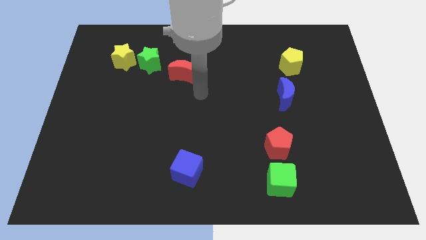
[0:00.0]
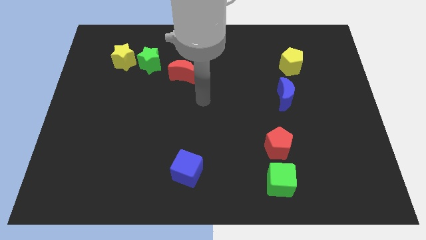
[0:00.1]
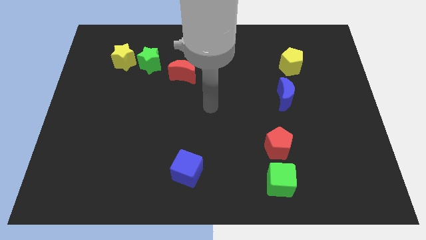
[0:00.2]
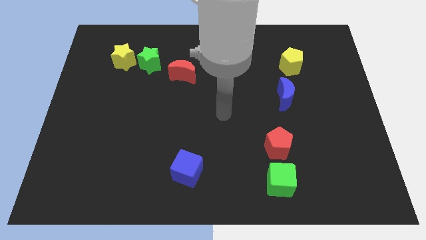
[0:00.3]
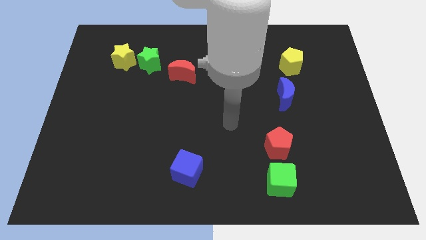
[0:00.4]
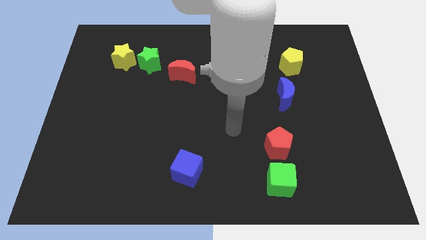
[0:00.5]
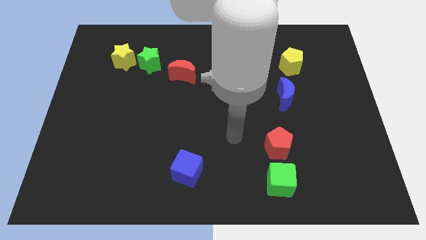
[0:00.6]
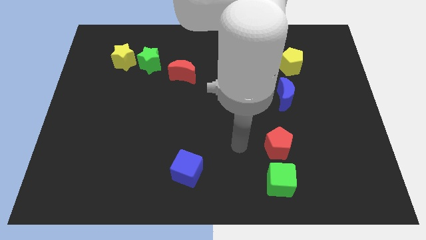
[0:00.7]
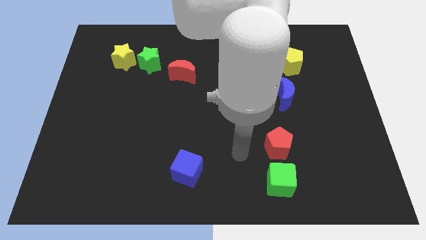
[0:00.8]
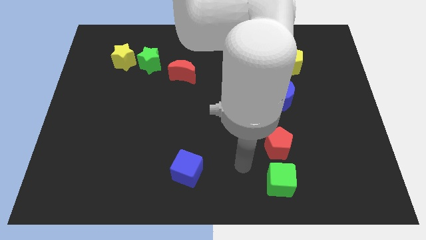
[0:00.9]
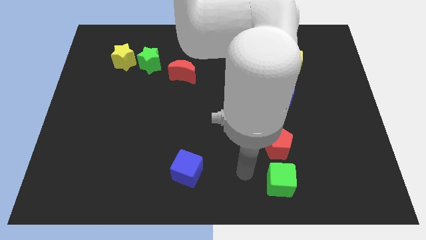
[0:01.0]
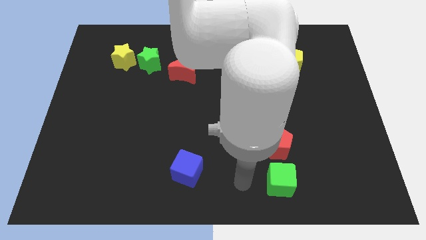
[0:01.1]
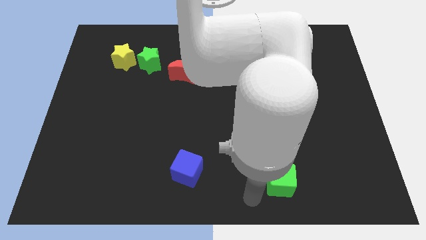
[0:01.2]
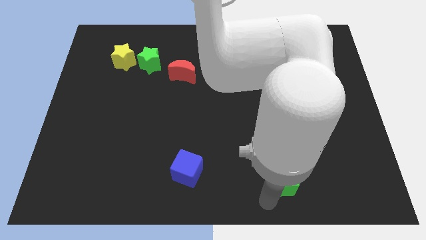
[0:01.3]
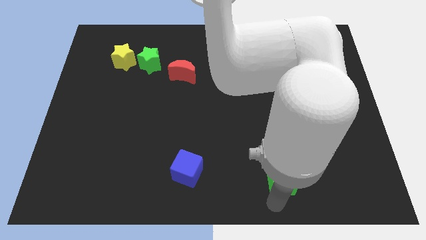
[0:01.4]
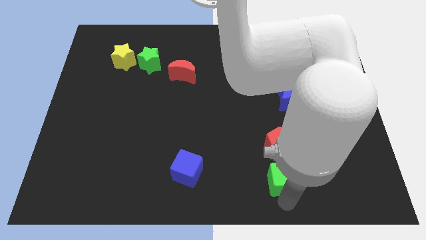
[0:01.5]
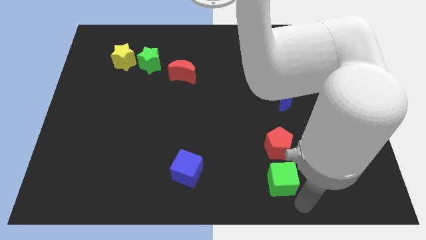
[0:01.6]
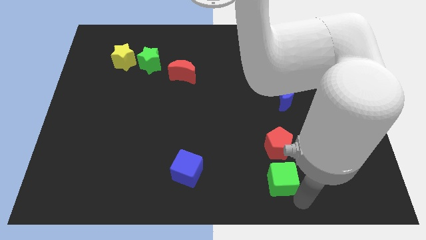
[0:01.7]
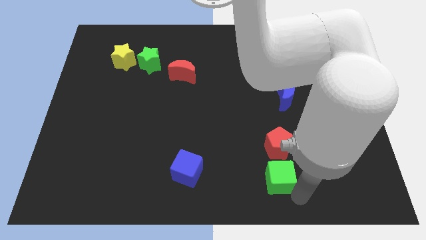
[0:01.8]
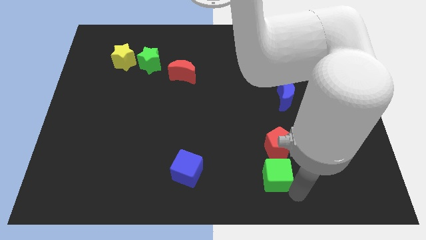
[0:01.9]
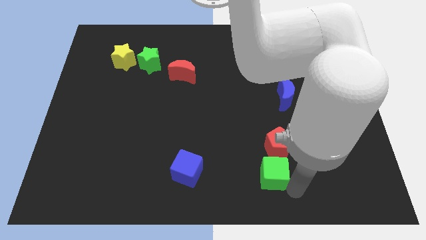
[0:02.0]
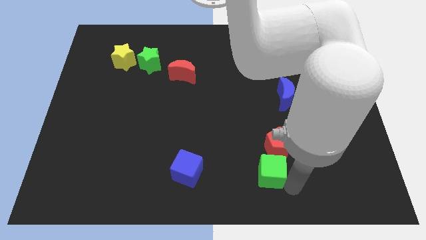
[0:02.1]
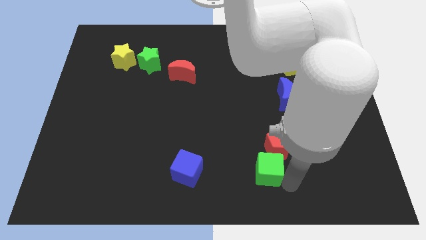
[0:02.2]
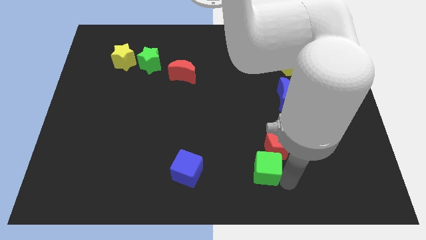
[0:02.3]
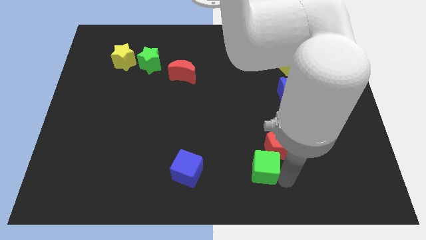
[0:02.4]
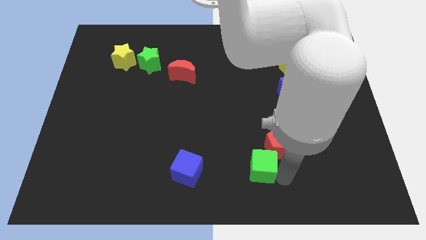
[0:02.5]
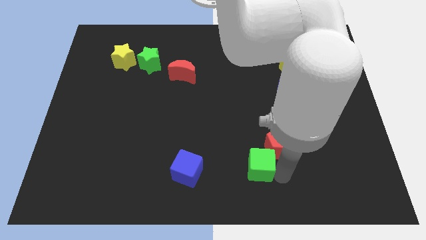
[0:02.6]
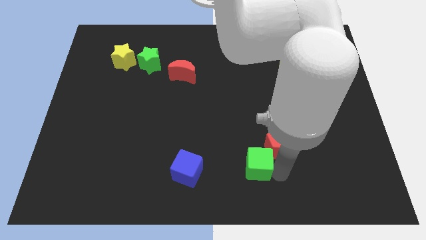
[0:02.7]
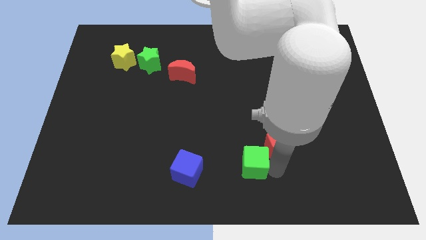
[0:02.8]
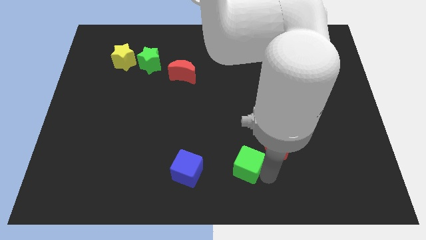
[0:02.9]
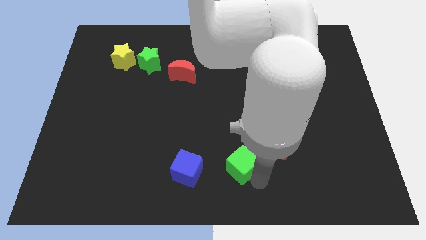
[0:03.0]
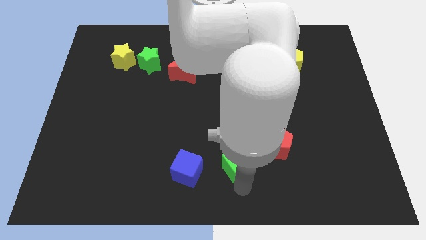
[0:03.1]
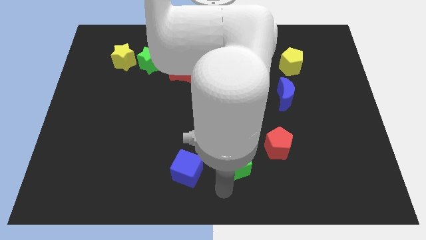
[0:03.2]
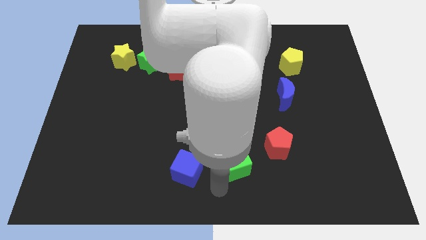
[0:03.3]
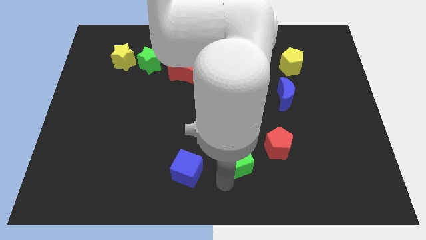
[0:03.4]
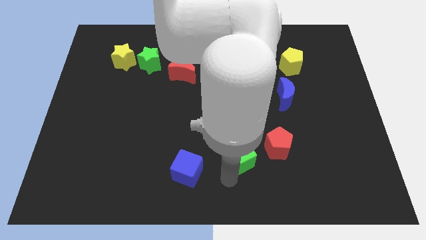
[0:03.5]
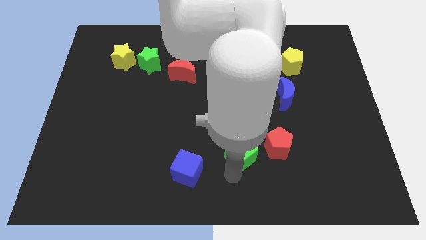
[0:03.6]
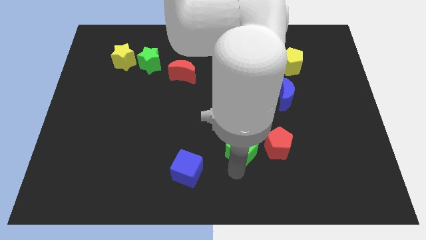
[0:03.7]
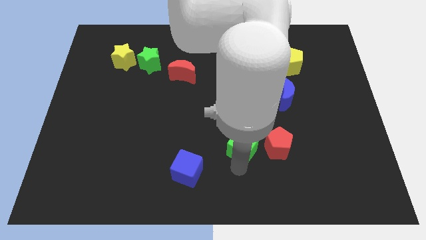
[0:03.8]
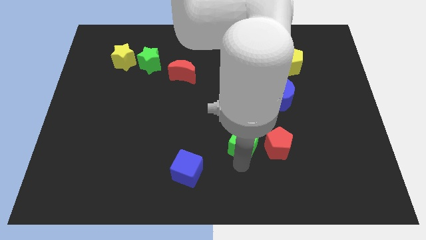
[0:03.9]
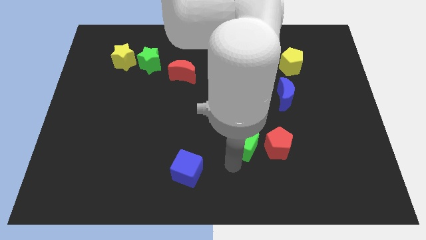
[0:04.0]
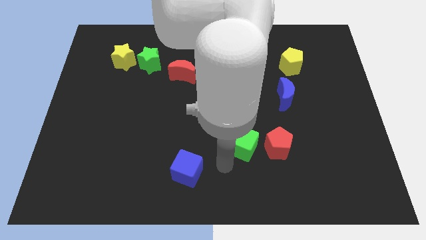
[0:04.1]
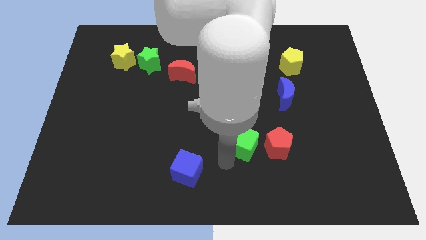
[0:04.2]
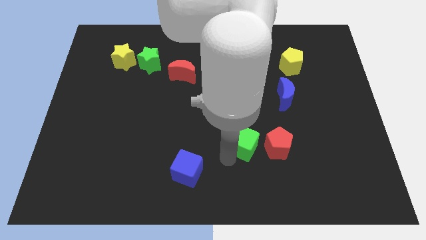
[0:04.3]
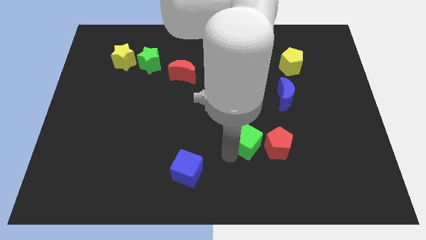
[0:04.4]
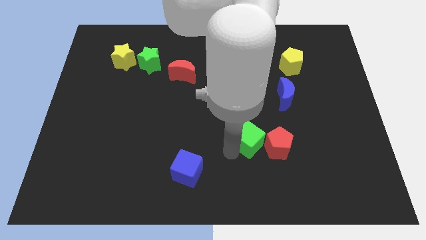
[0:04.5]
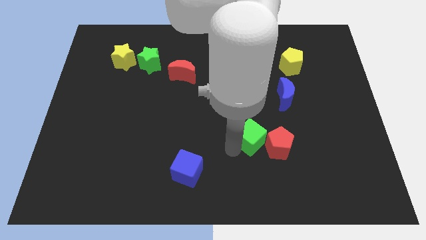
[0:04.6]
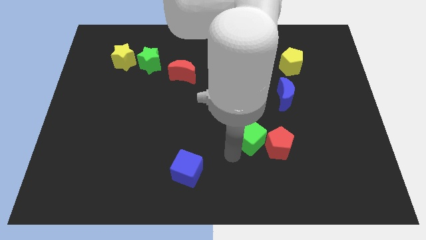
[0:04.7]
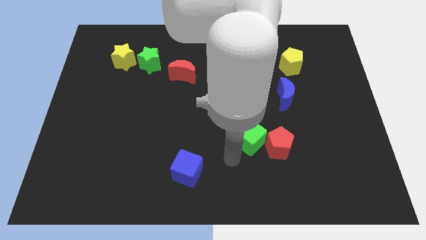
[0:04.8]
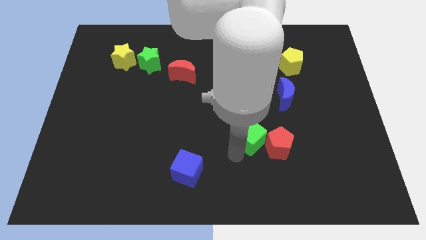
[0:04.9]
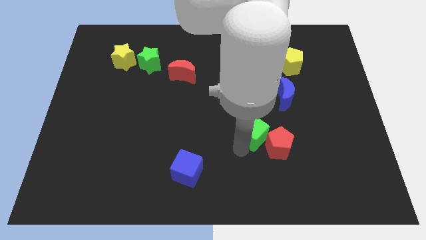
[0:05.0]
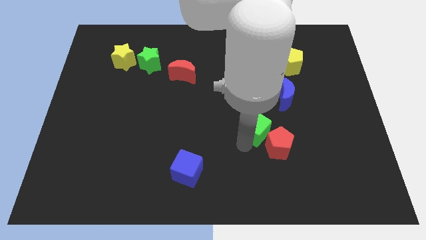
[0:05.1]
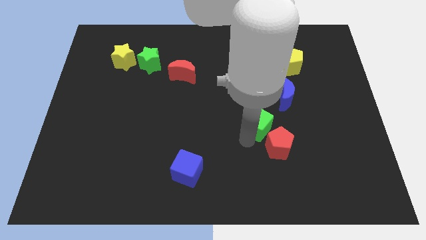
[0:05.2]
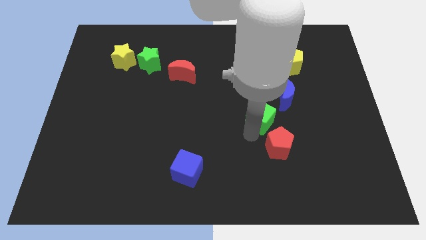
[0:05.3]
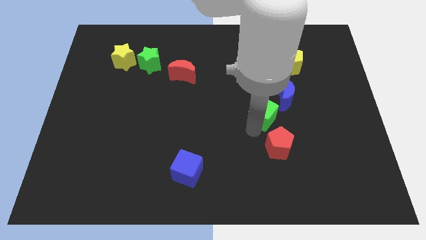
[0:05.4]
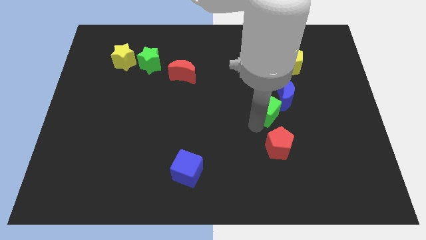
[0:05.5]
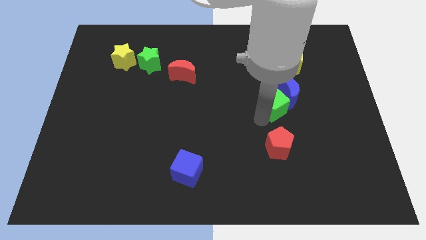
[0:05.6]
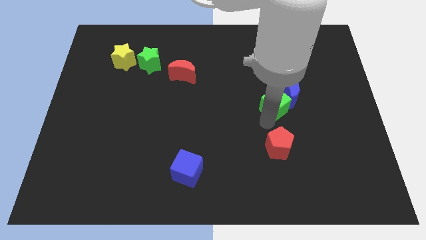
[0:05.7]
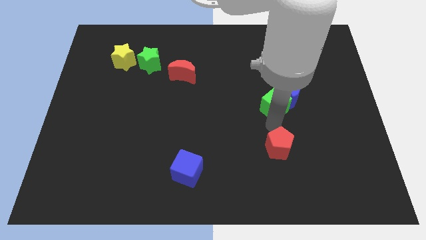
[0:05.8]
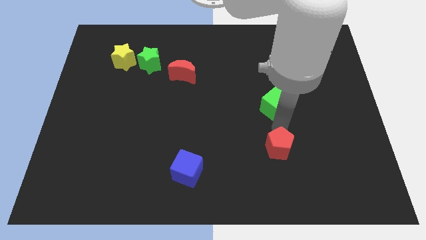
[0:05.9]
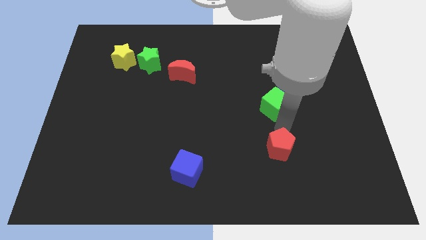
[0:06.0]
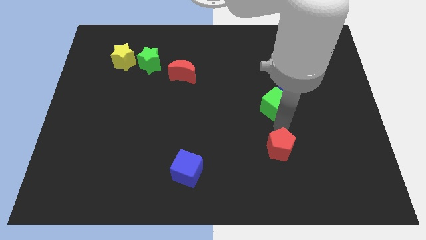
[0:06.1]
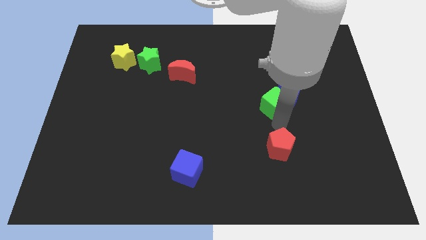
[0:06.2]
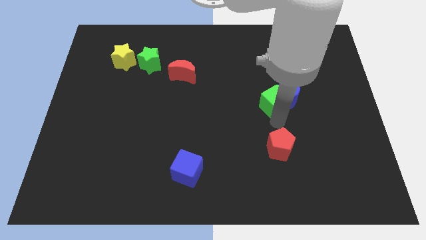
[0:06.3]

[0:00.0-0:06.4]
push the green cube upwards

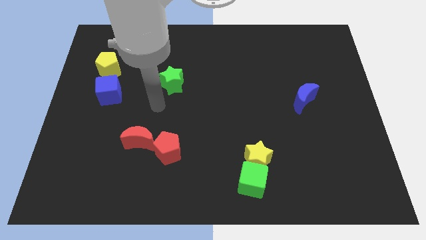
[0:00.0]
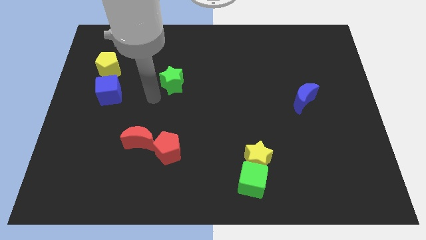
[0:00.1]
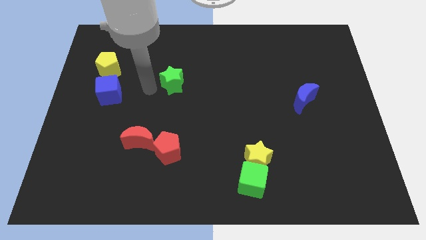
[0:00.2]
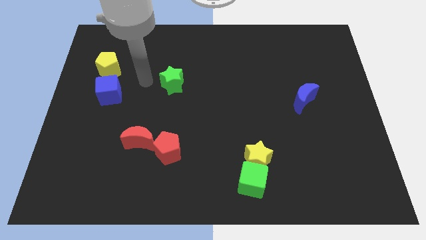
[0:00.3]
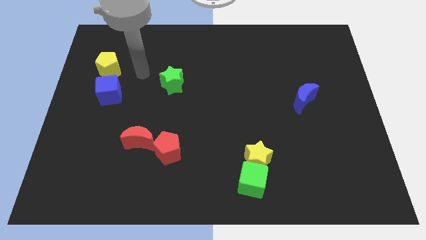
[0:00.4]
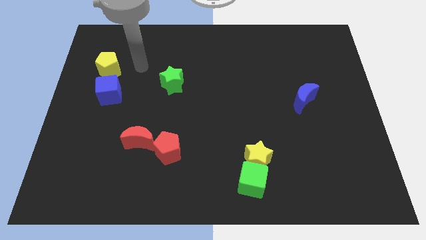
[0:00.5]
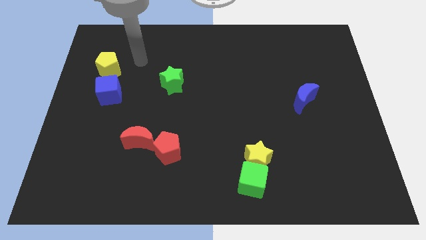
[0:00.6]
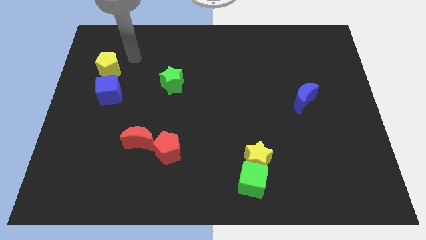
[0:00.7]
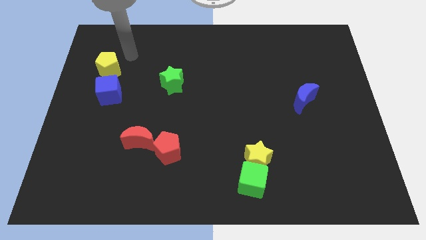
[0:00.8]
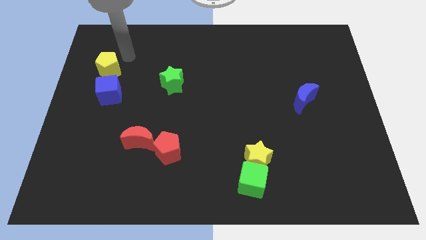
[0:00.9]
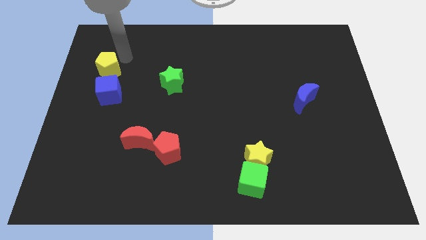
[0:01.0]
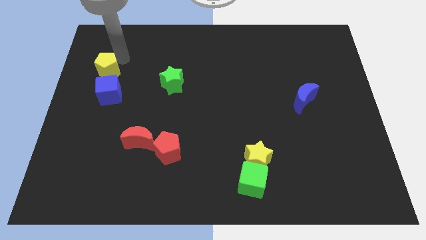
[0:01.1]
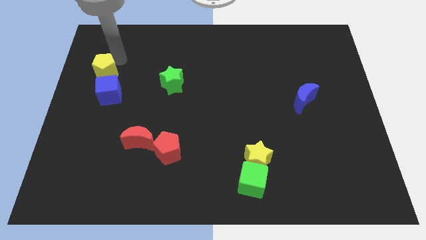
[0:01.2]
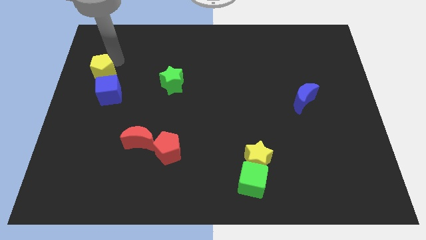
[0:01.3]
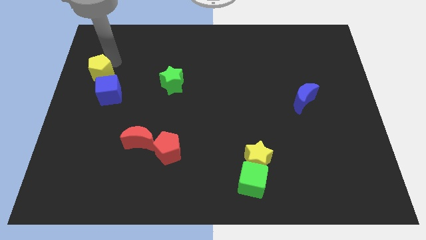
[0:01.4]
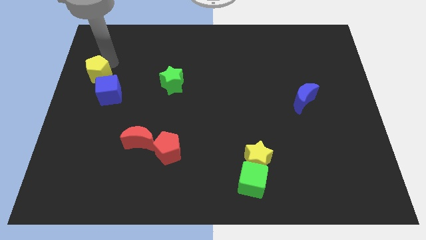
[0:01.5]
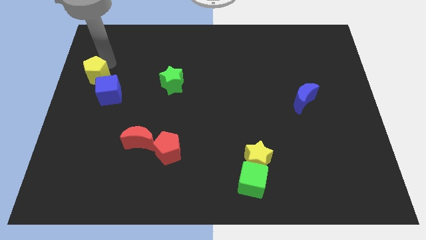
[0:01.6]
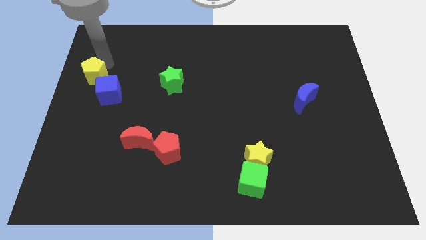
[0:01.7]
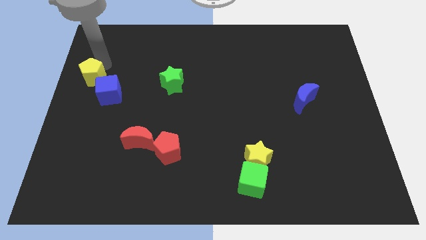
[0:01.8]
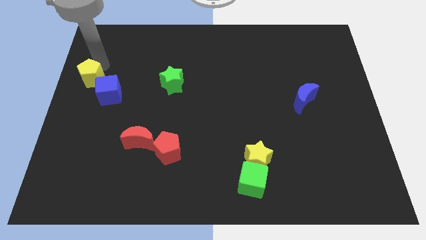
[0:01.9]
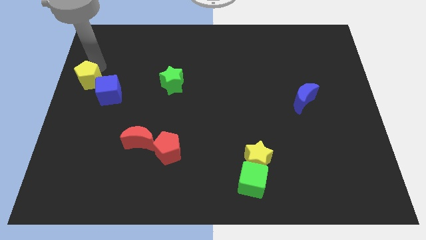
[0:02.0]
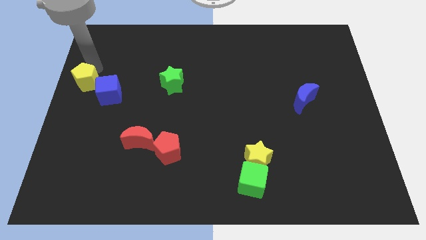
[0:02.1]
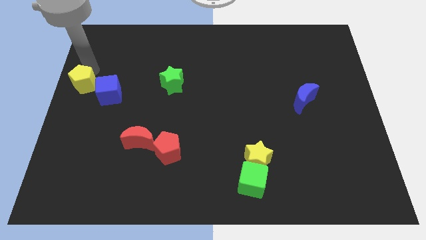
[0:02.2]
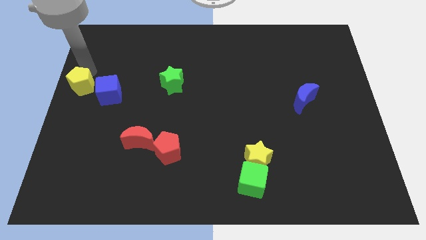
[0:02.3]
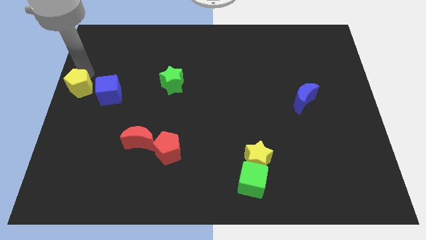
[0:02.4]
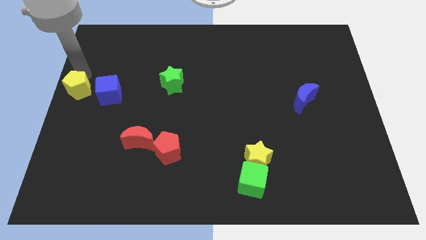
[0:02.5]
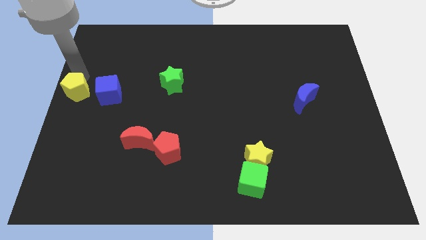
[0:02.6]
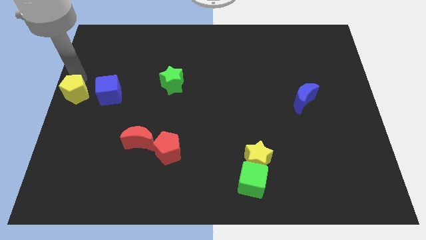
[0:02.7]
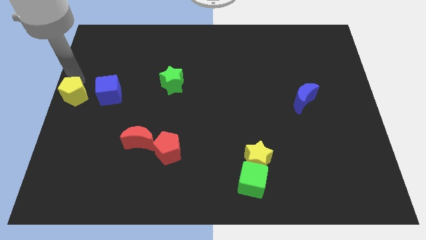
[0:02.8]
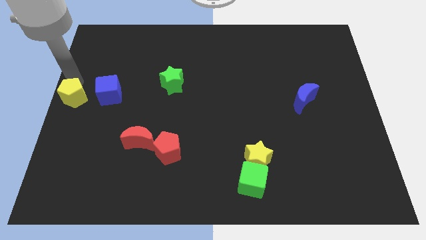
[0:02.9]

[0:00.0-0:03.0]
move the yellow pentagon downwards slightly
